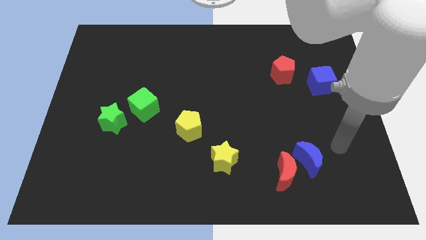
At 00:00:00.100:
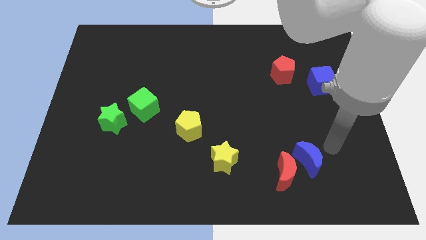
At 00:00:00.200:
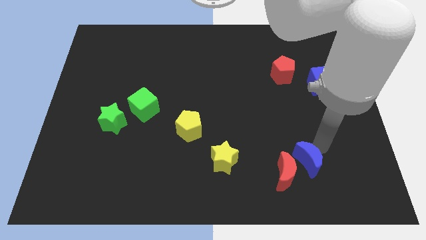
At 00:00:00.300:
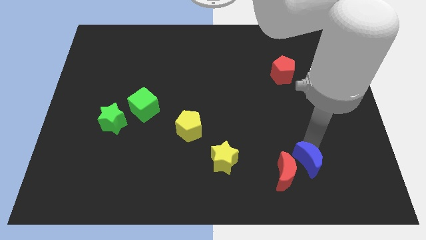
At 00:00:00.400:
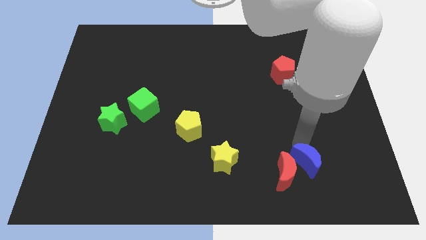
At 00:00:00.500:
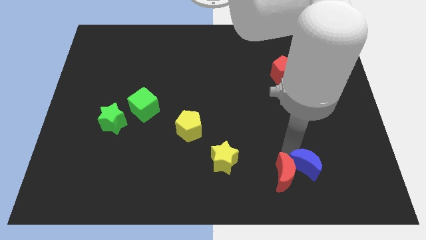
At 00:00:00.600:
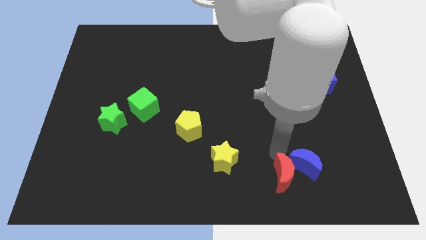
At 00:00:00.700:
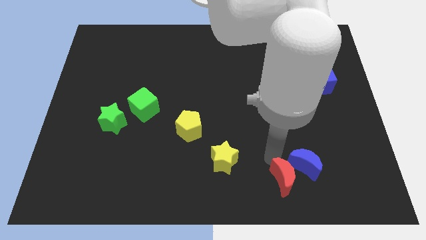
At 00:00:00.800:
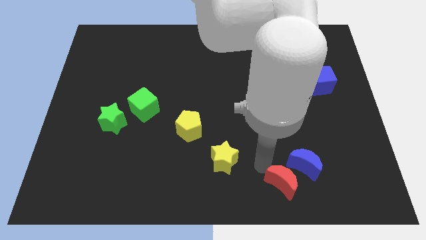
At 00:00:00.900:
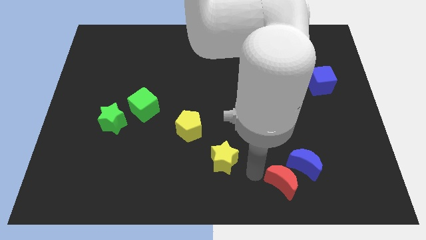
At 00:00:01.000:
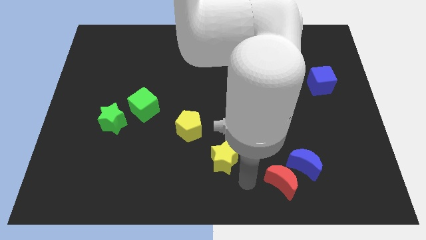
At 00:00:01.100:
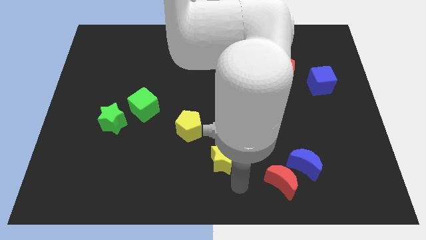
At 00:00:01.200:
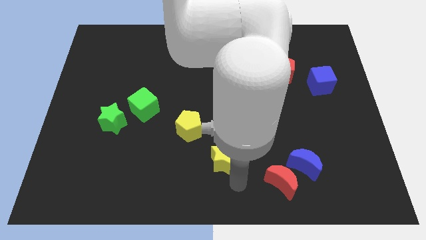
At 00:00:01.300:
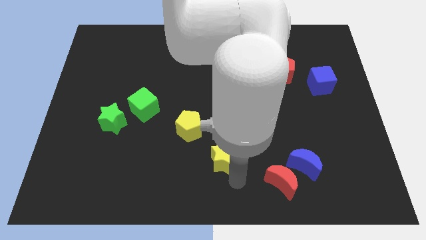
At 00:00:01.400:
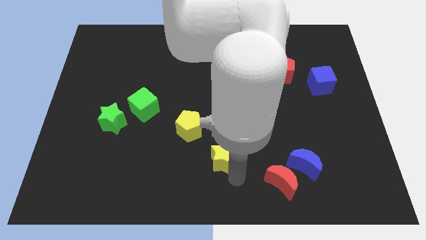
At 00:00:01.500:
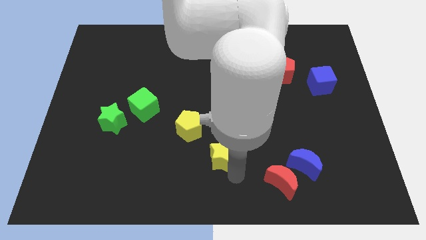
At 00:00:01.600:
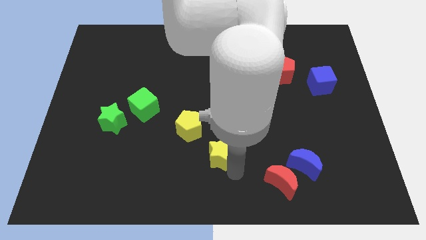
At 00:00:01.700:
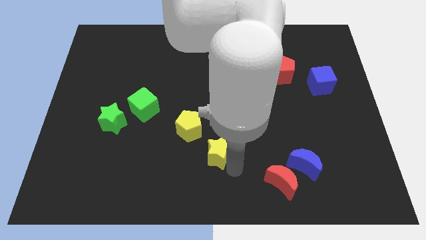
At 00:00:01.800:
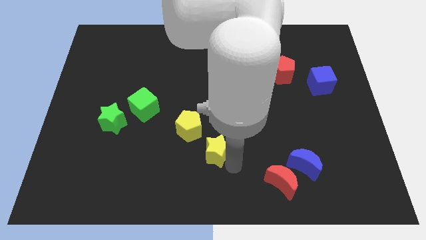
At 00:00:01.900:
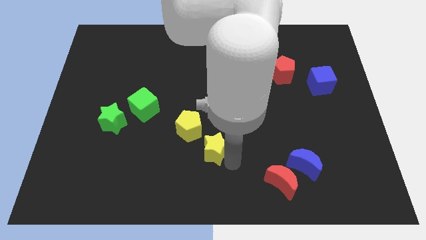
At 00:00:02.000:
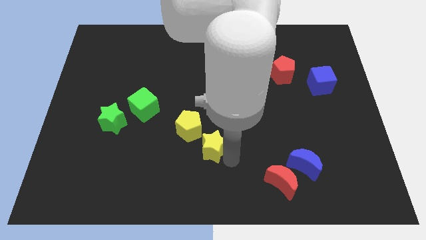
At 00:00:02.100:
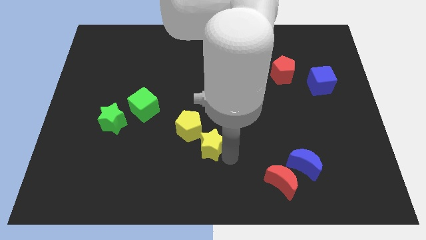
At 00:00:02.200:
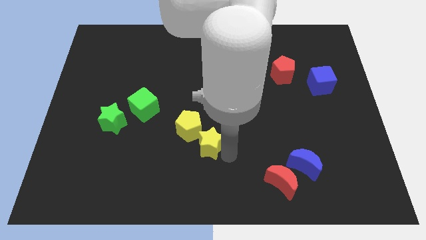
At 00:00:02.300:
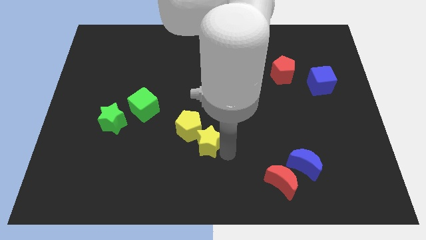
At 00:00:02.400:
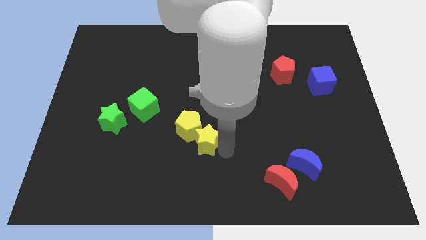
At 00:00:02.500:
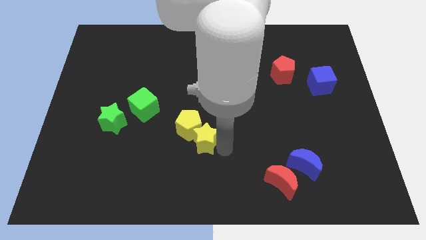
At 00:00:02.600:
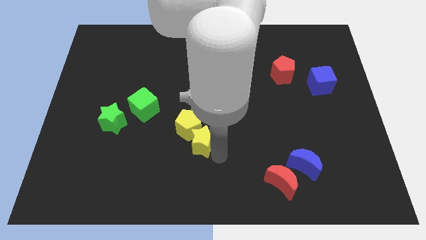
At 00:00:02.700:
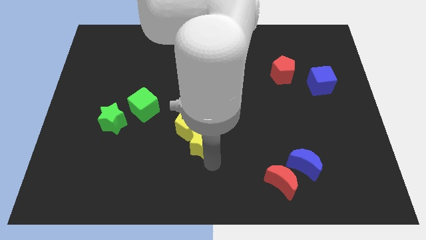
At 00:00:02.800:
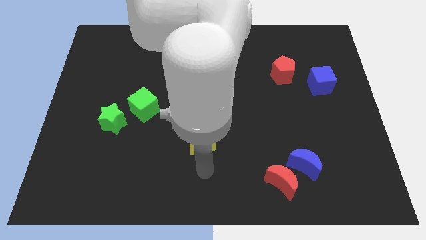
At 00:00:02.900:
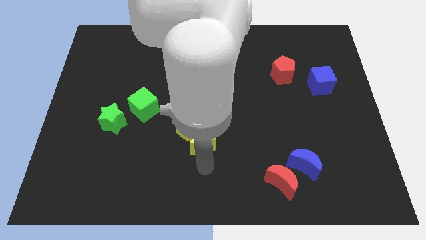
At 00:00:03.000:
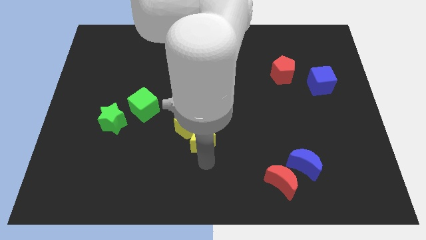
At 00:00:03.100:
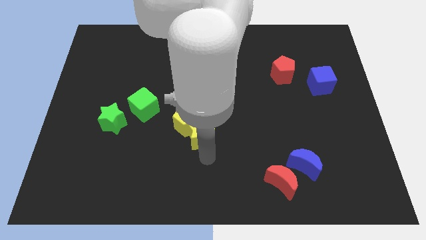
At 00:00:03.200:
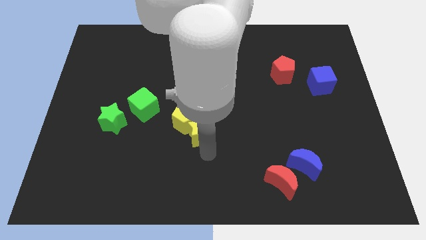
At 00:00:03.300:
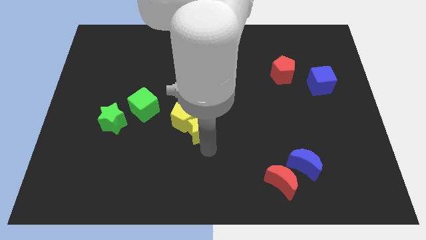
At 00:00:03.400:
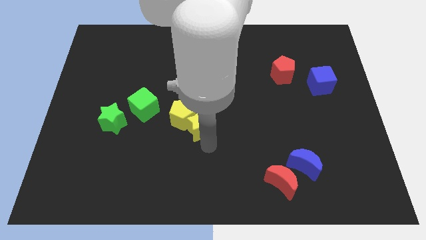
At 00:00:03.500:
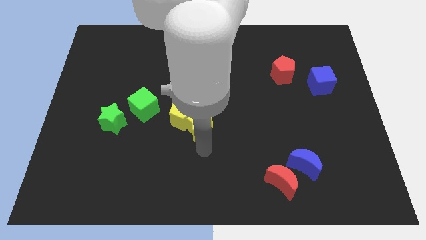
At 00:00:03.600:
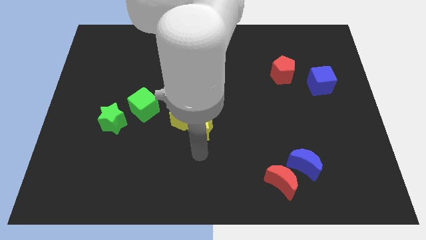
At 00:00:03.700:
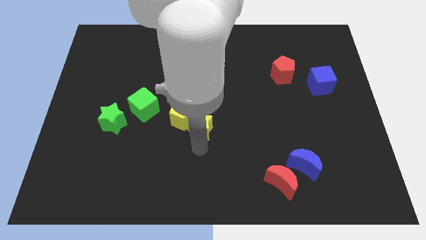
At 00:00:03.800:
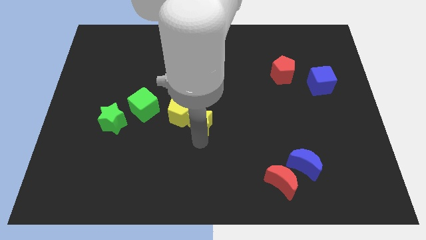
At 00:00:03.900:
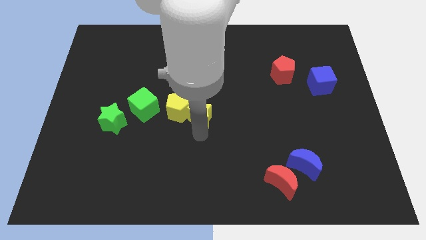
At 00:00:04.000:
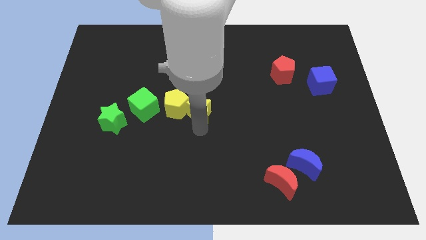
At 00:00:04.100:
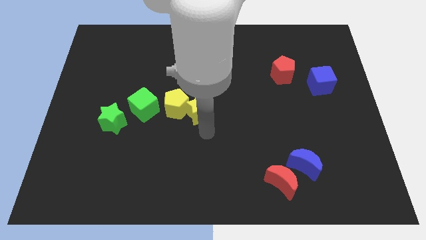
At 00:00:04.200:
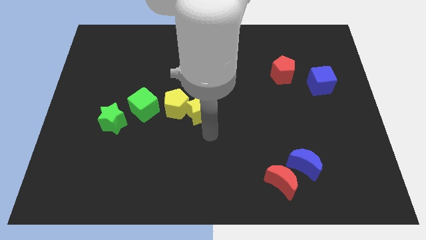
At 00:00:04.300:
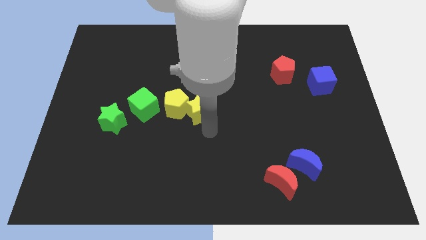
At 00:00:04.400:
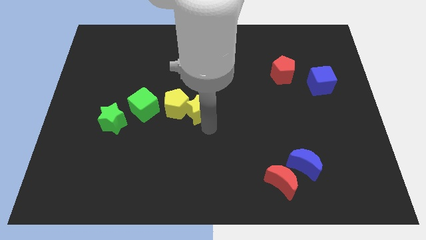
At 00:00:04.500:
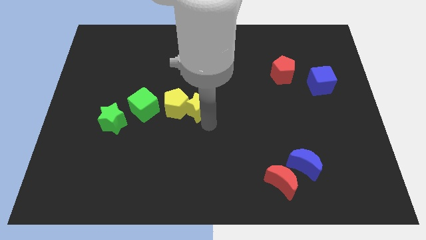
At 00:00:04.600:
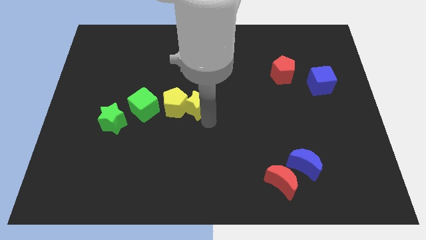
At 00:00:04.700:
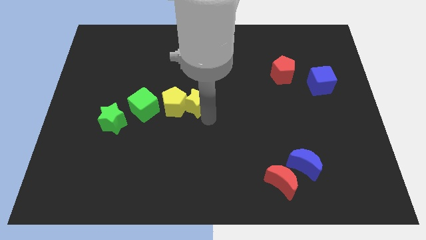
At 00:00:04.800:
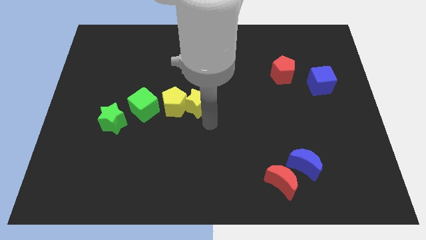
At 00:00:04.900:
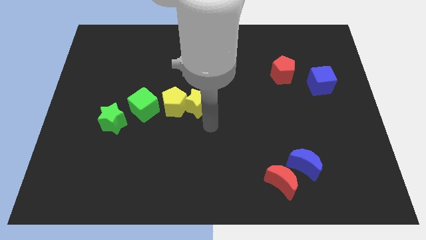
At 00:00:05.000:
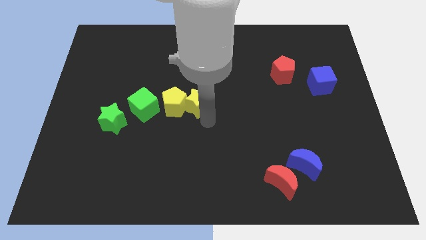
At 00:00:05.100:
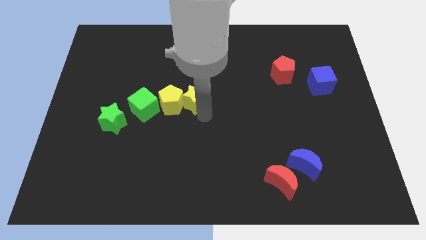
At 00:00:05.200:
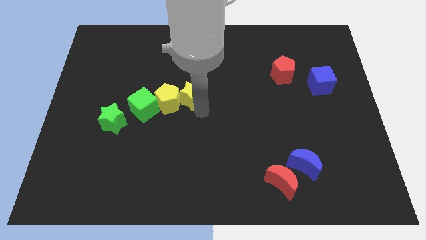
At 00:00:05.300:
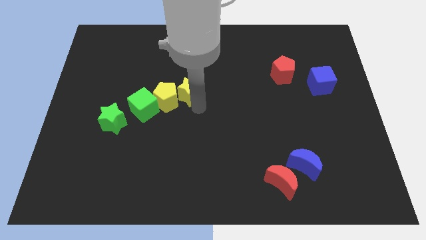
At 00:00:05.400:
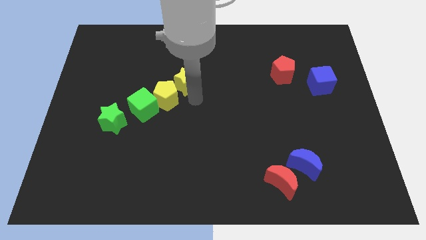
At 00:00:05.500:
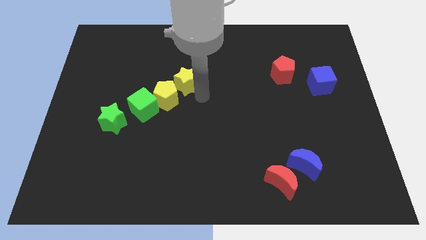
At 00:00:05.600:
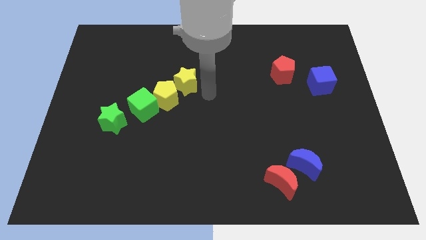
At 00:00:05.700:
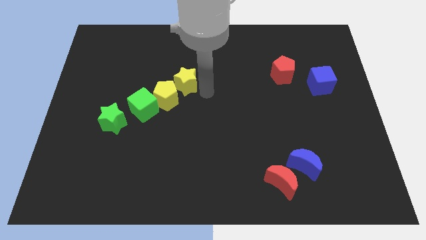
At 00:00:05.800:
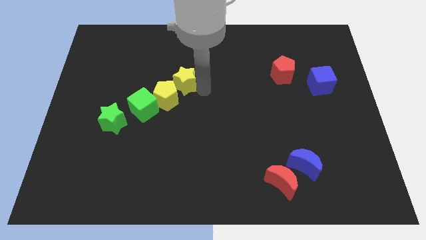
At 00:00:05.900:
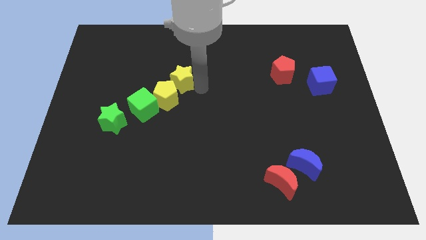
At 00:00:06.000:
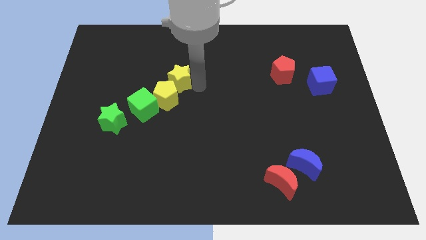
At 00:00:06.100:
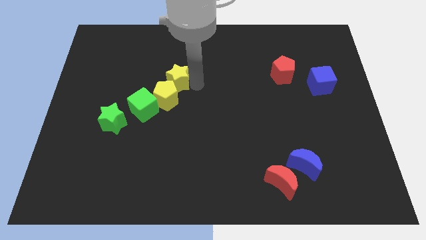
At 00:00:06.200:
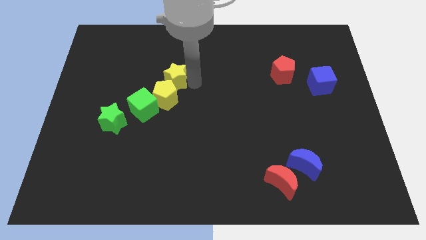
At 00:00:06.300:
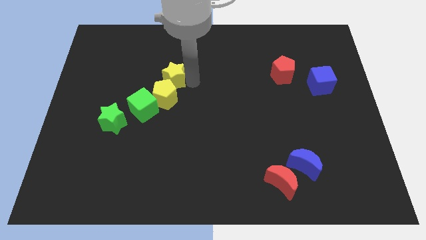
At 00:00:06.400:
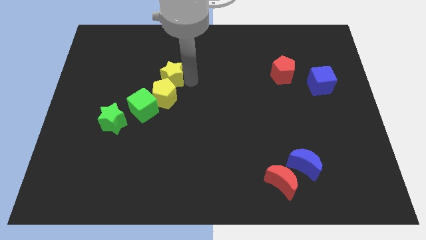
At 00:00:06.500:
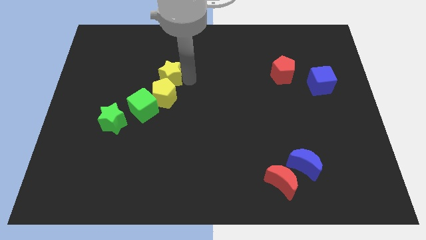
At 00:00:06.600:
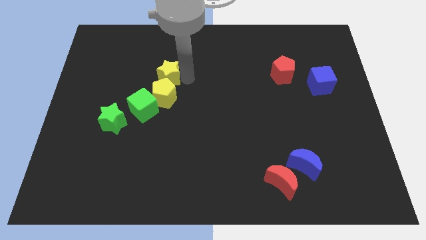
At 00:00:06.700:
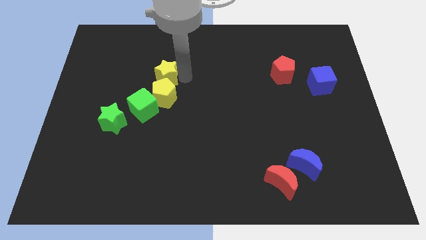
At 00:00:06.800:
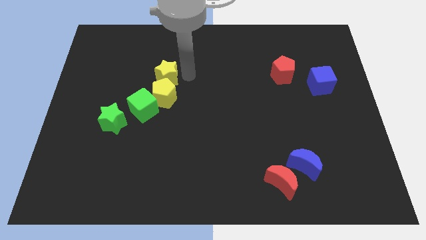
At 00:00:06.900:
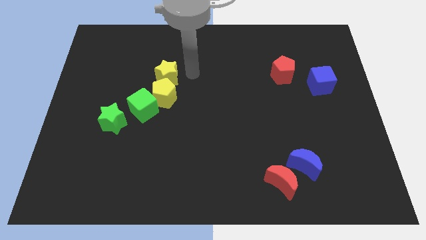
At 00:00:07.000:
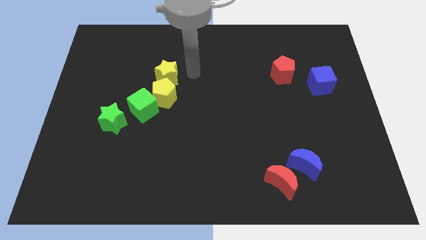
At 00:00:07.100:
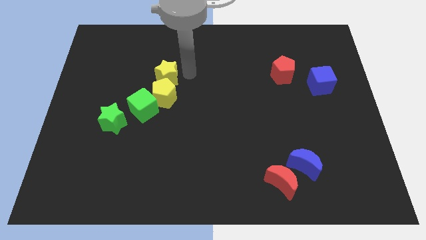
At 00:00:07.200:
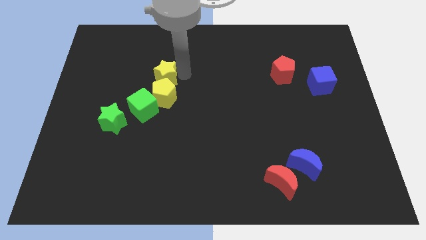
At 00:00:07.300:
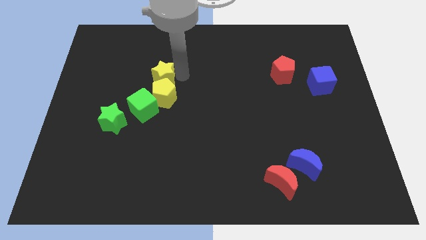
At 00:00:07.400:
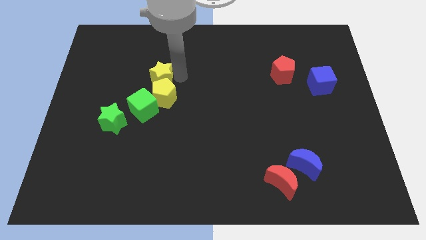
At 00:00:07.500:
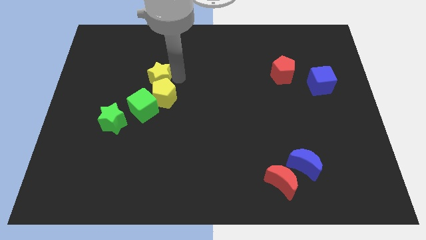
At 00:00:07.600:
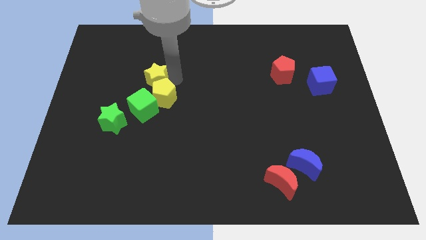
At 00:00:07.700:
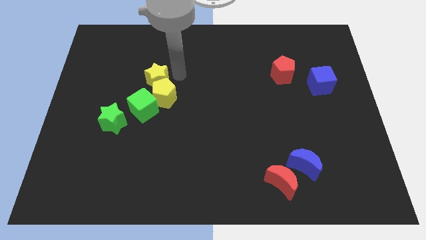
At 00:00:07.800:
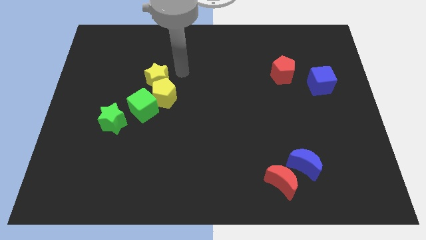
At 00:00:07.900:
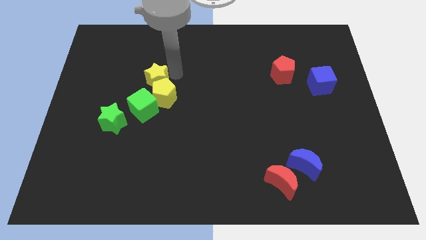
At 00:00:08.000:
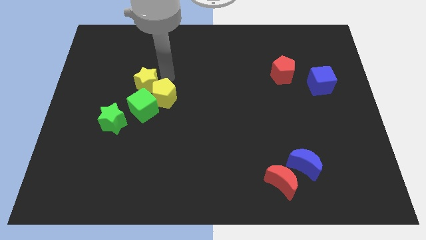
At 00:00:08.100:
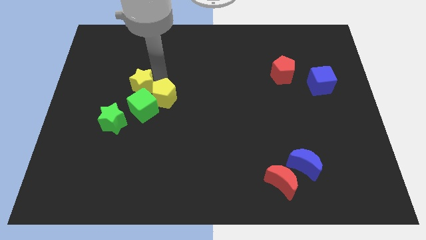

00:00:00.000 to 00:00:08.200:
put the yellow star to the top left of the green cube
